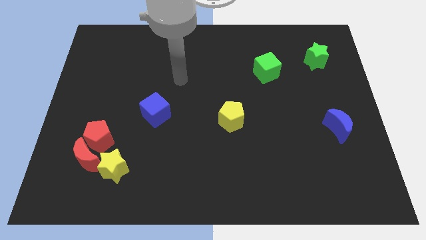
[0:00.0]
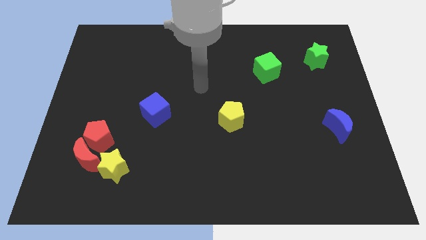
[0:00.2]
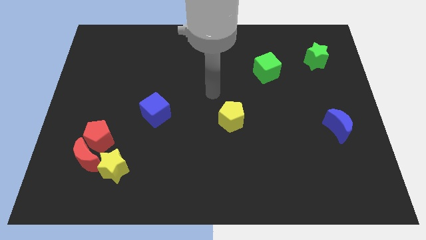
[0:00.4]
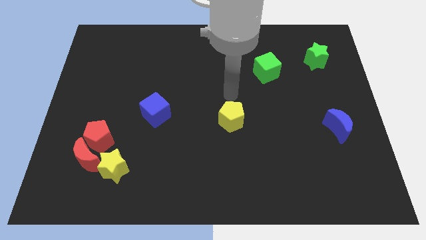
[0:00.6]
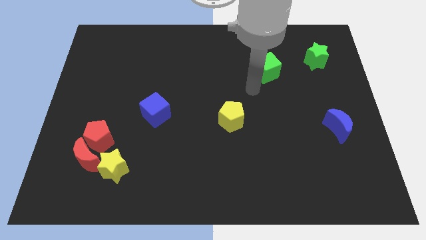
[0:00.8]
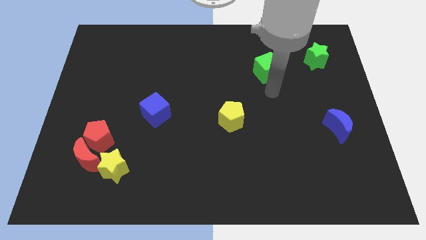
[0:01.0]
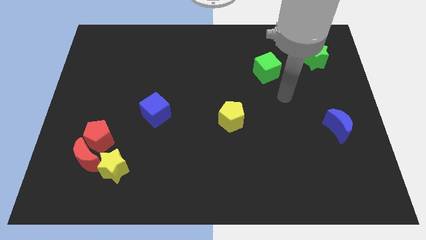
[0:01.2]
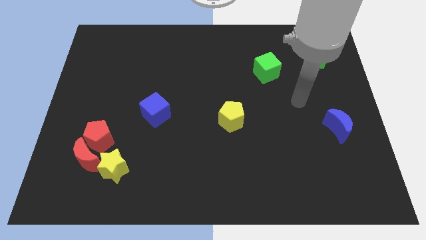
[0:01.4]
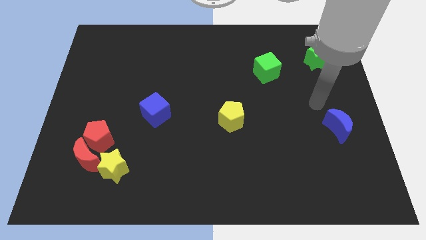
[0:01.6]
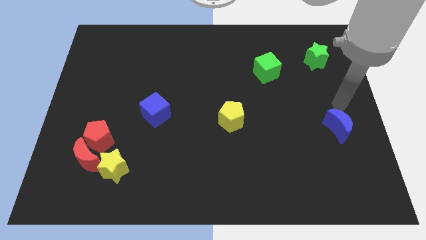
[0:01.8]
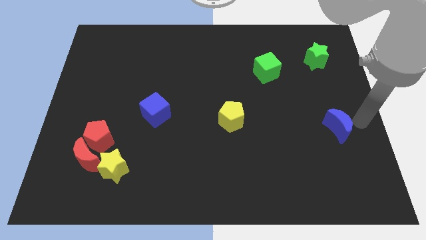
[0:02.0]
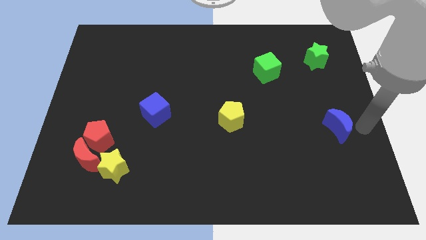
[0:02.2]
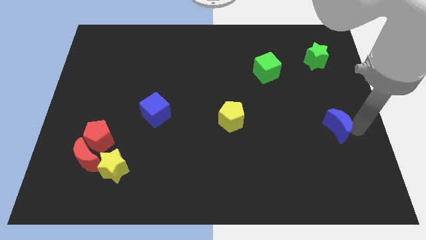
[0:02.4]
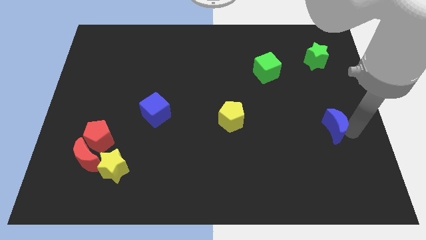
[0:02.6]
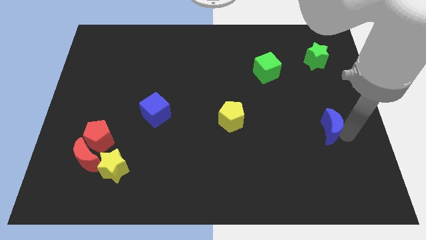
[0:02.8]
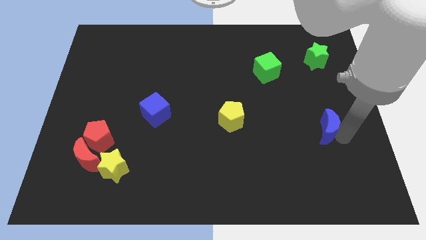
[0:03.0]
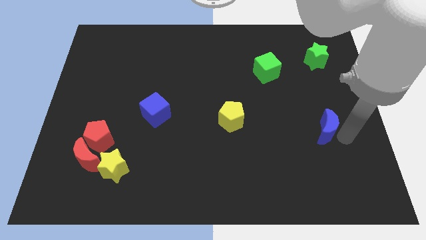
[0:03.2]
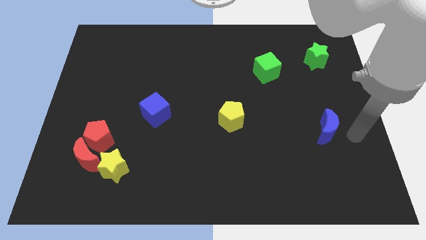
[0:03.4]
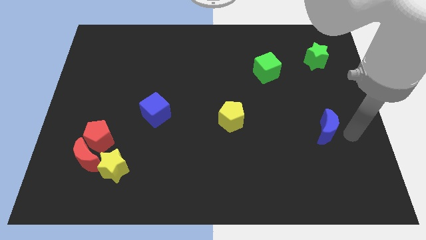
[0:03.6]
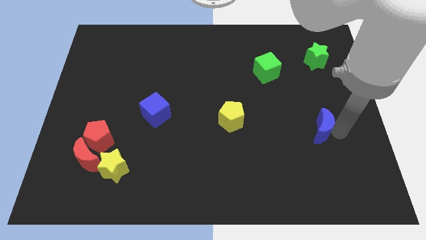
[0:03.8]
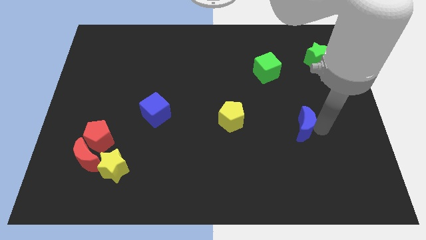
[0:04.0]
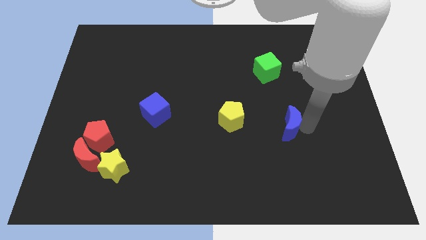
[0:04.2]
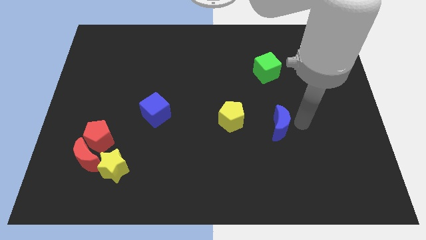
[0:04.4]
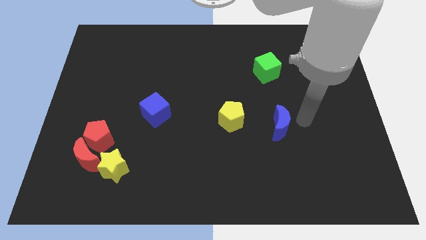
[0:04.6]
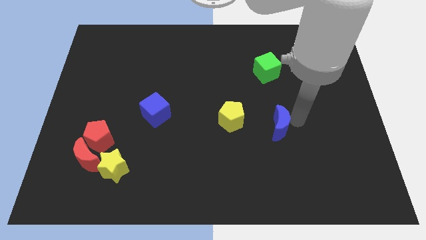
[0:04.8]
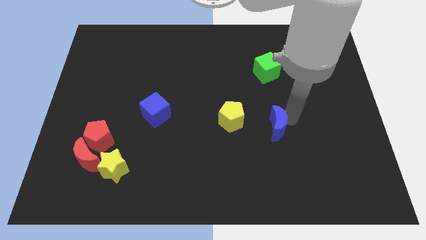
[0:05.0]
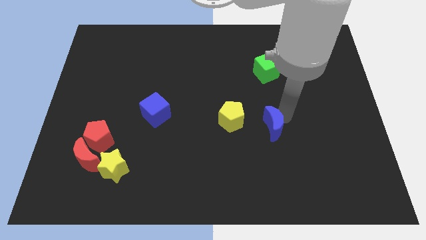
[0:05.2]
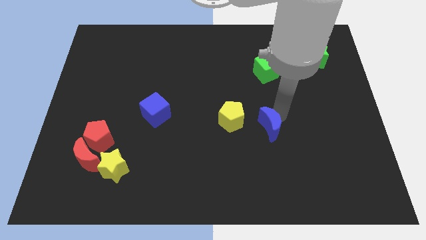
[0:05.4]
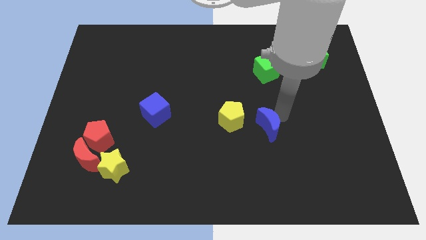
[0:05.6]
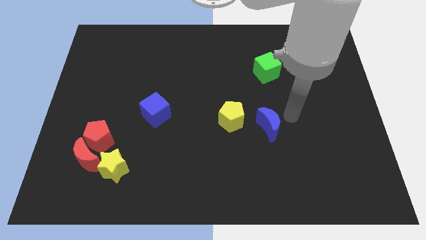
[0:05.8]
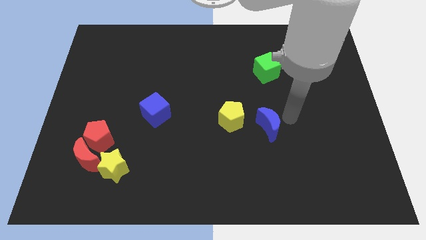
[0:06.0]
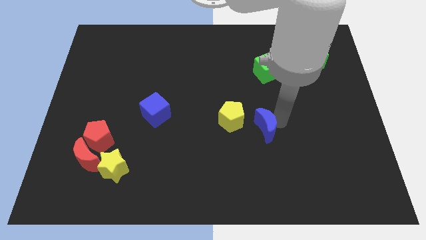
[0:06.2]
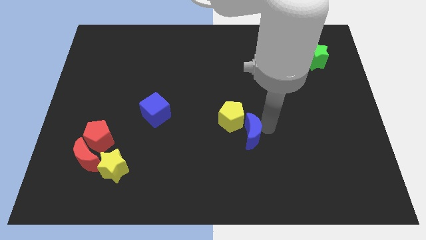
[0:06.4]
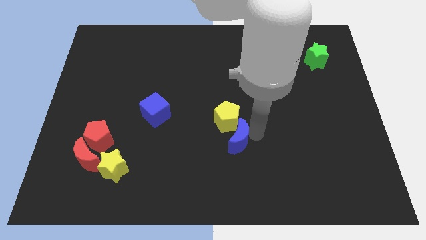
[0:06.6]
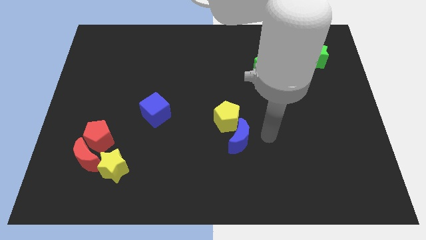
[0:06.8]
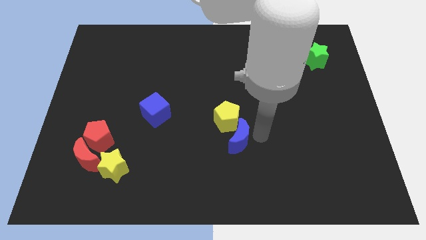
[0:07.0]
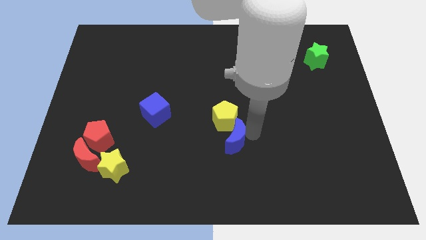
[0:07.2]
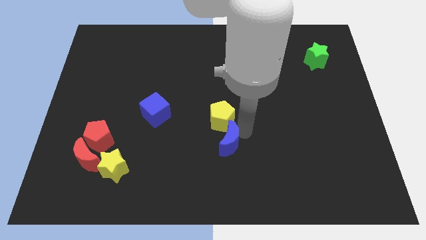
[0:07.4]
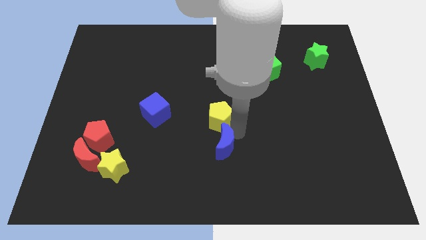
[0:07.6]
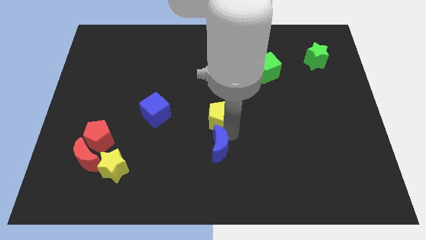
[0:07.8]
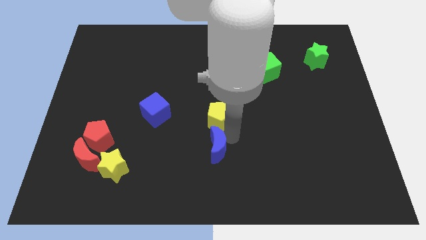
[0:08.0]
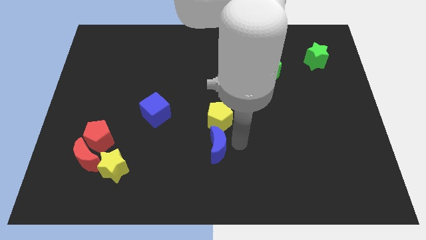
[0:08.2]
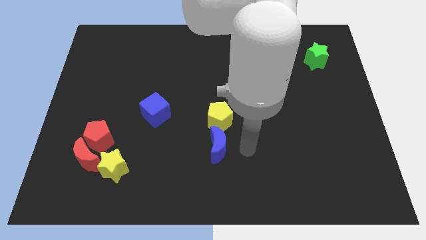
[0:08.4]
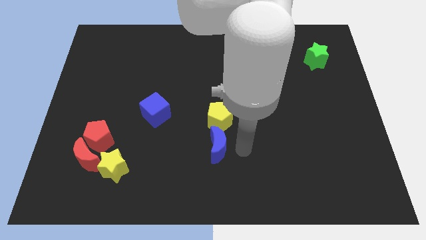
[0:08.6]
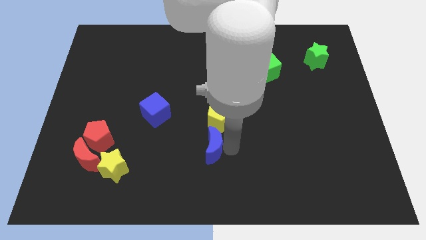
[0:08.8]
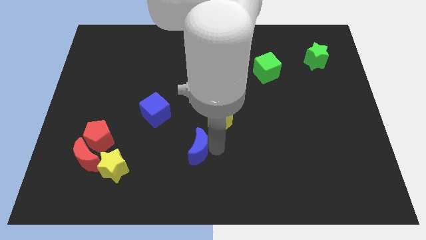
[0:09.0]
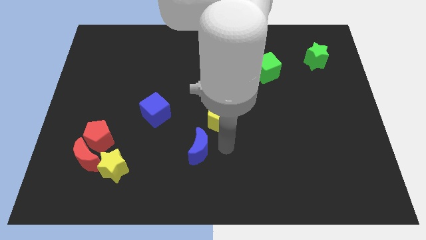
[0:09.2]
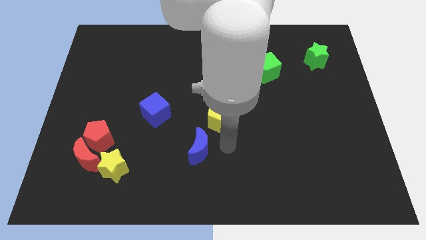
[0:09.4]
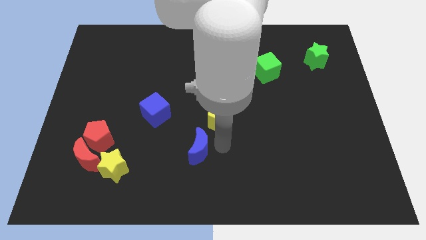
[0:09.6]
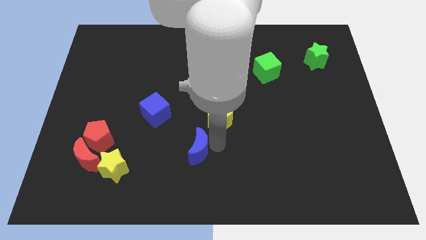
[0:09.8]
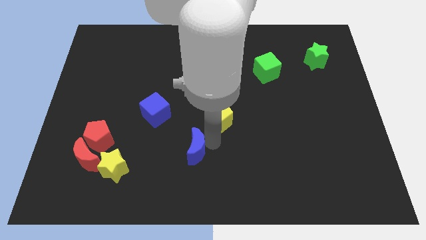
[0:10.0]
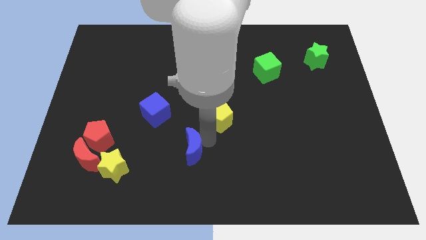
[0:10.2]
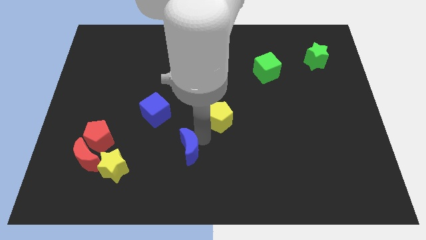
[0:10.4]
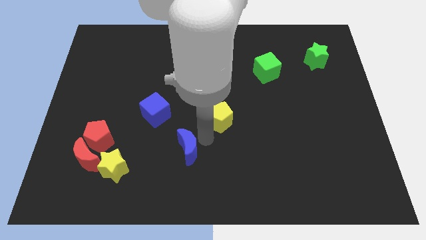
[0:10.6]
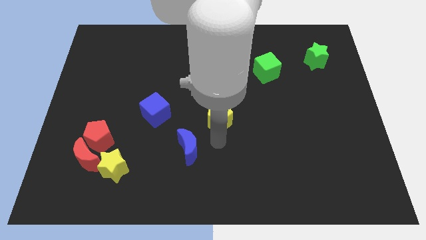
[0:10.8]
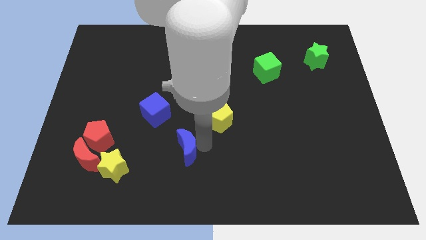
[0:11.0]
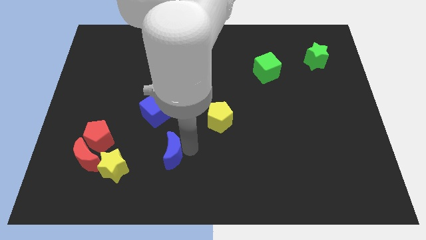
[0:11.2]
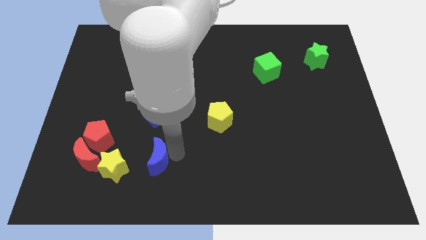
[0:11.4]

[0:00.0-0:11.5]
slide the blue moon just right of the red moon

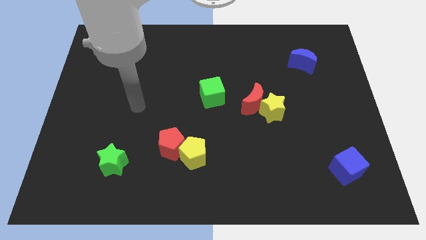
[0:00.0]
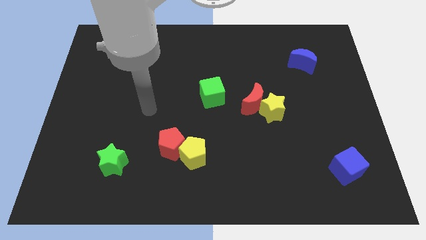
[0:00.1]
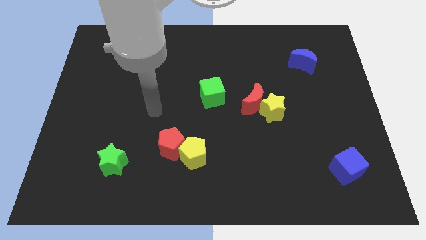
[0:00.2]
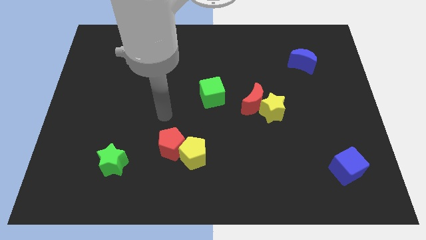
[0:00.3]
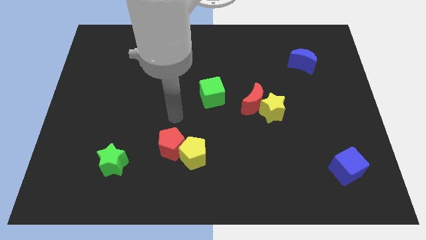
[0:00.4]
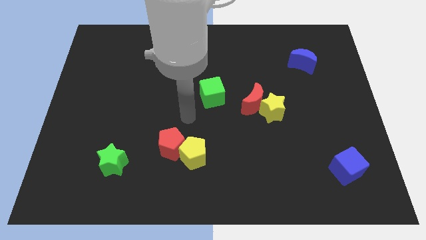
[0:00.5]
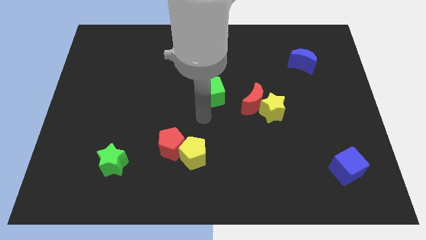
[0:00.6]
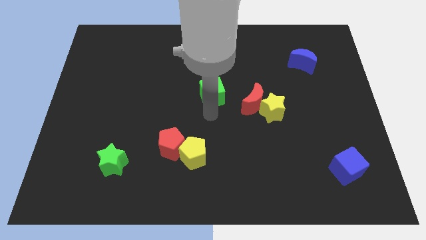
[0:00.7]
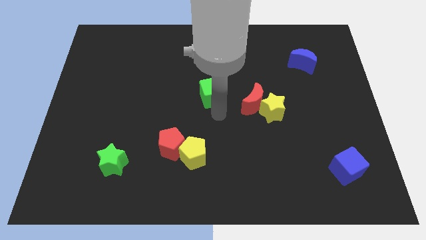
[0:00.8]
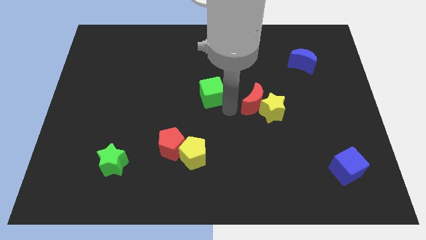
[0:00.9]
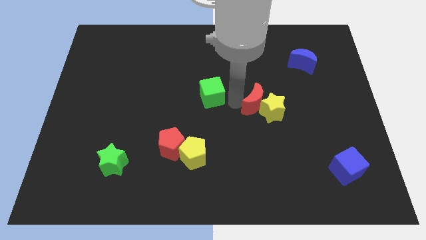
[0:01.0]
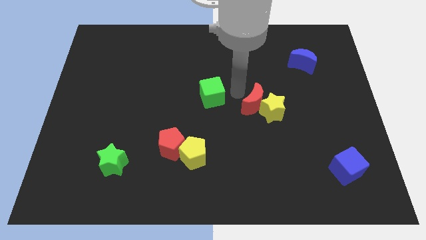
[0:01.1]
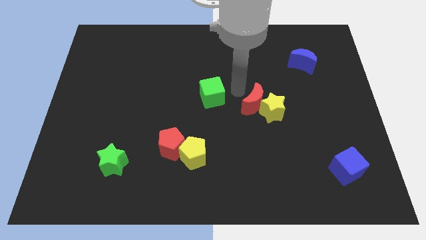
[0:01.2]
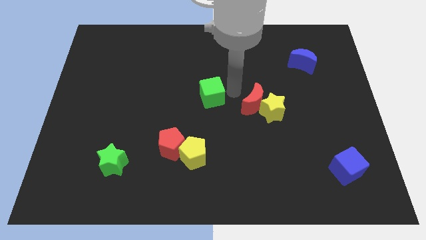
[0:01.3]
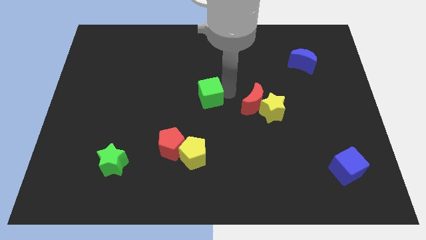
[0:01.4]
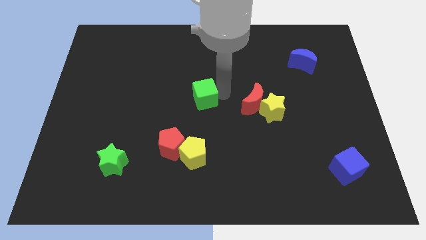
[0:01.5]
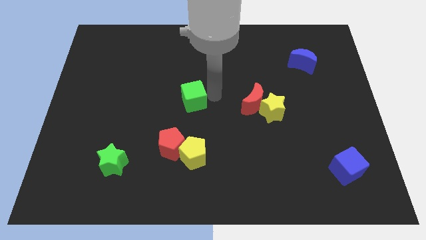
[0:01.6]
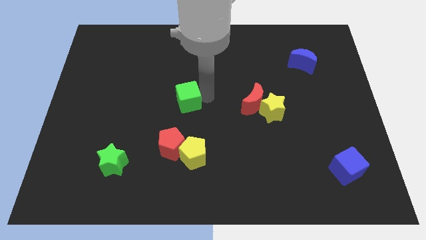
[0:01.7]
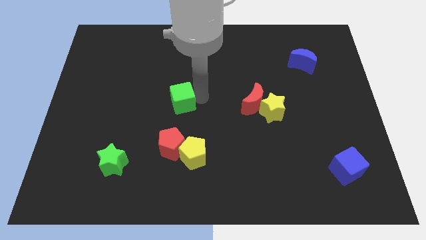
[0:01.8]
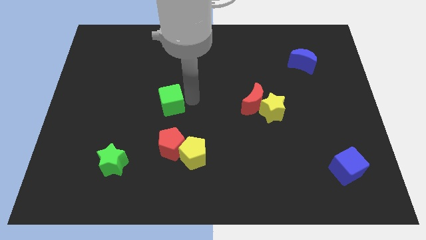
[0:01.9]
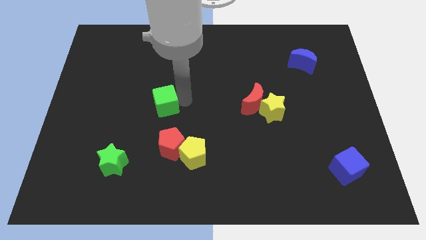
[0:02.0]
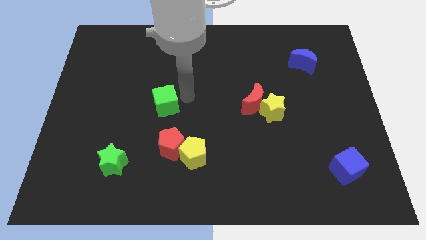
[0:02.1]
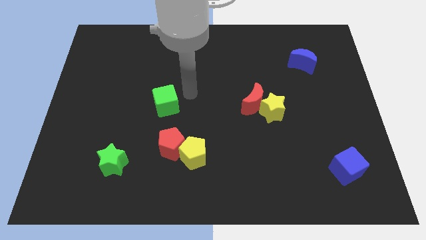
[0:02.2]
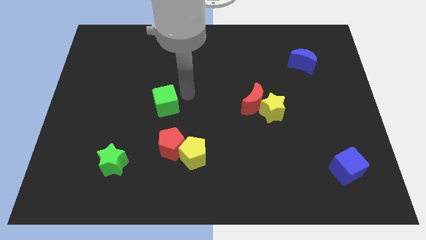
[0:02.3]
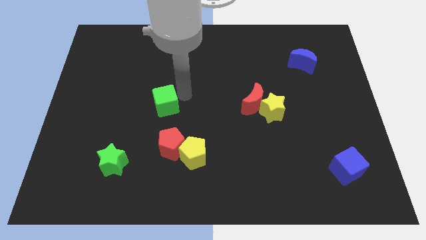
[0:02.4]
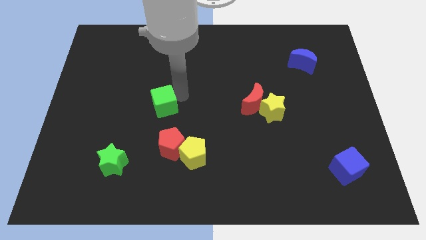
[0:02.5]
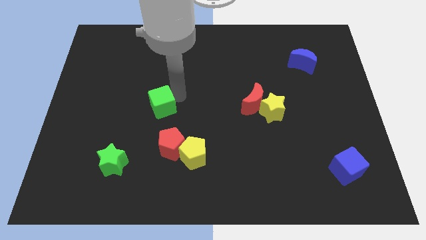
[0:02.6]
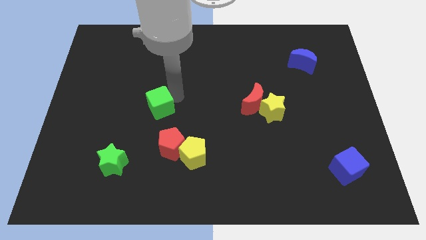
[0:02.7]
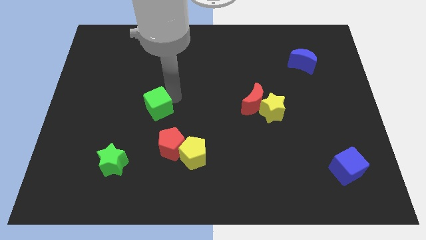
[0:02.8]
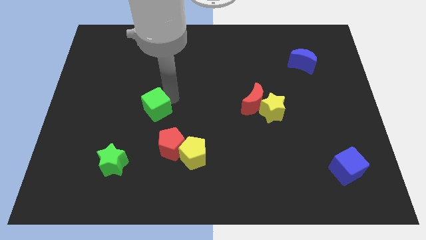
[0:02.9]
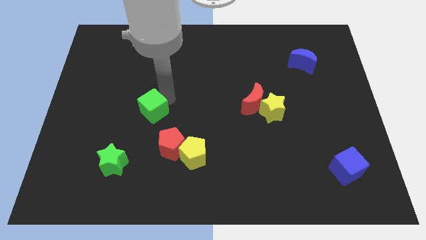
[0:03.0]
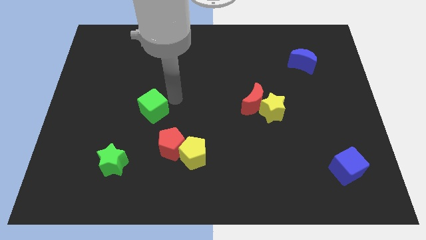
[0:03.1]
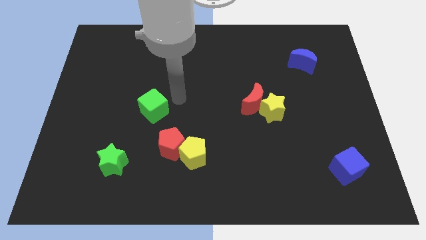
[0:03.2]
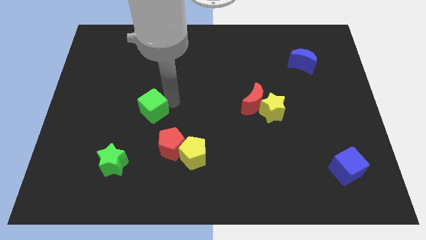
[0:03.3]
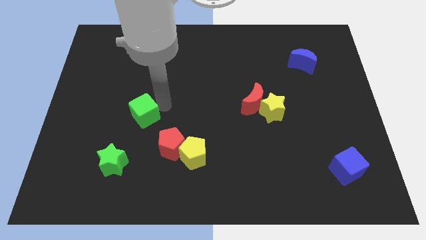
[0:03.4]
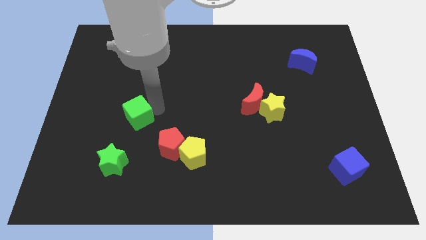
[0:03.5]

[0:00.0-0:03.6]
slide the green cube to the top side of the green star
